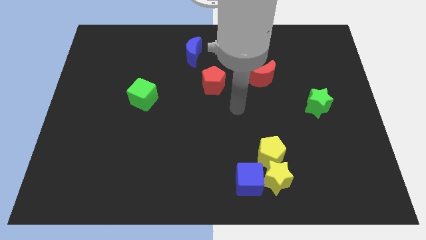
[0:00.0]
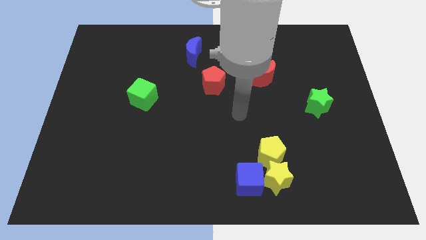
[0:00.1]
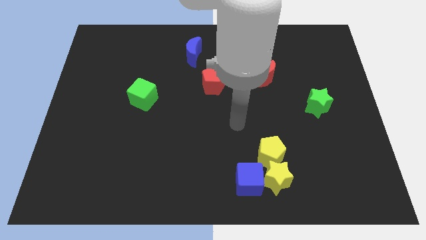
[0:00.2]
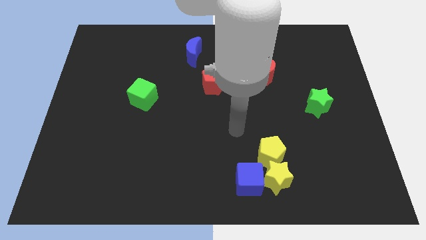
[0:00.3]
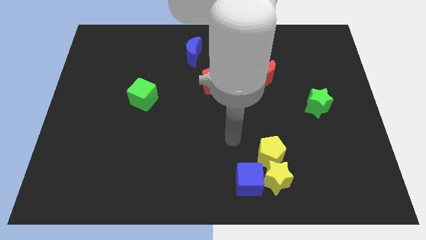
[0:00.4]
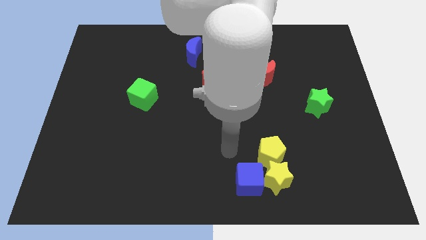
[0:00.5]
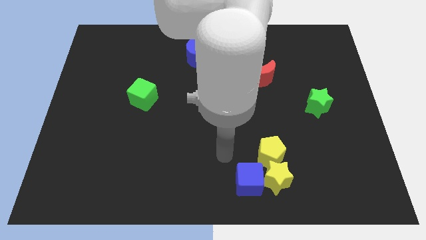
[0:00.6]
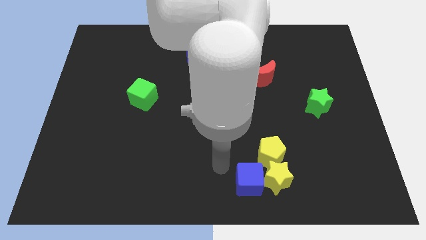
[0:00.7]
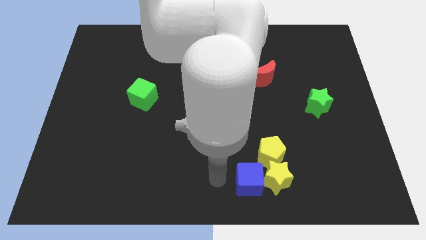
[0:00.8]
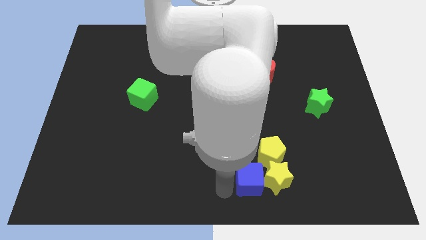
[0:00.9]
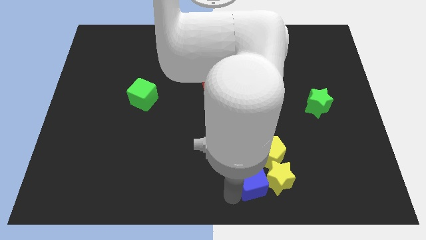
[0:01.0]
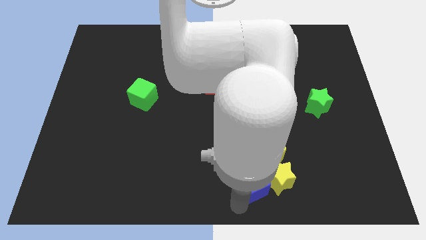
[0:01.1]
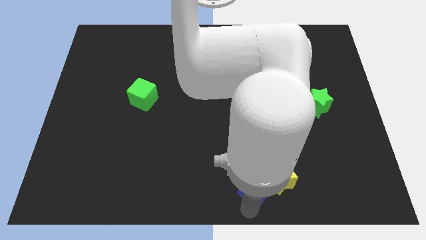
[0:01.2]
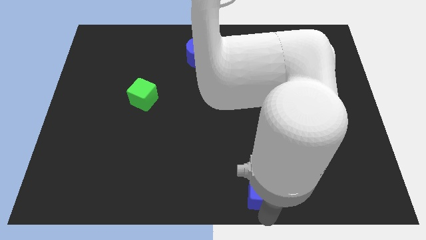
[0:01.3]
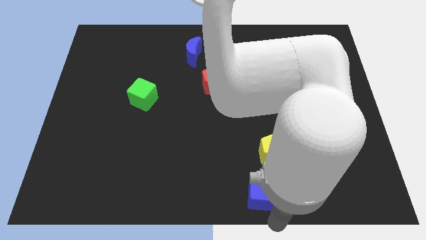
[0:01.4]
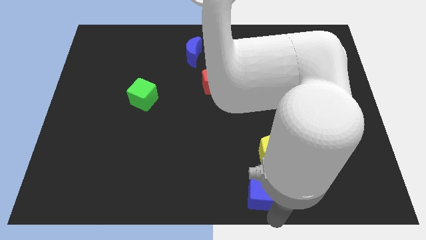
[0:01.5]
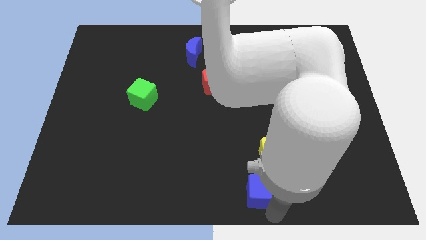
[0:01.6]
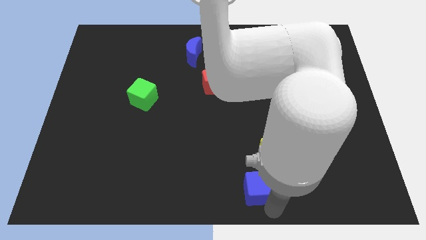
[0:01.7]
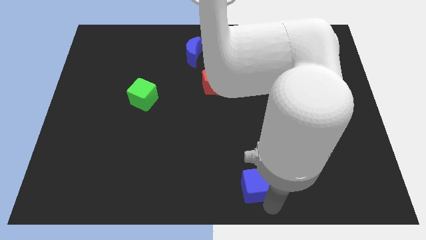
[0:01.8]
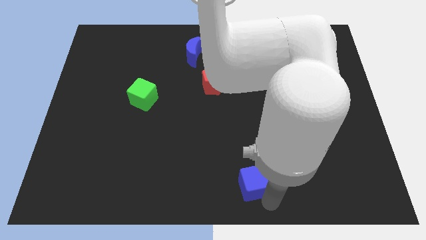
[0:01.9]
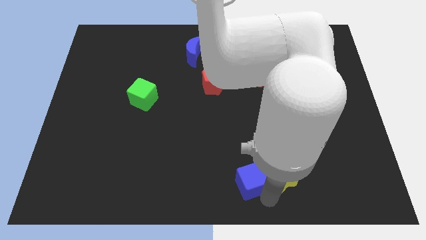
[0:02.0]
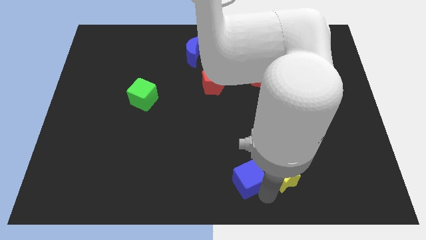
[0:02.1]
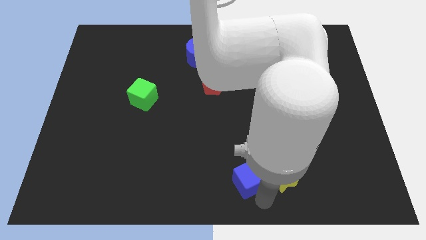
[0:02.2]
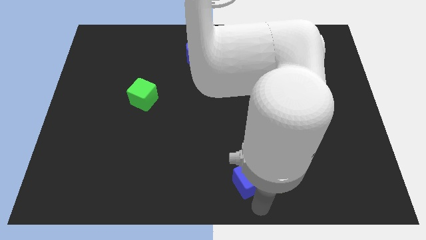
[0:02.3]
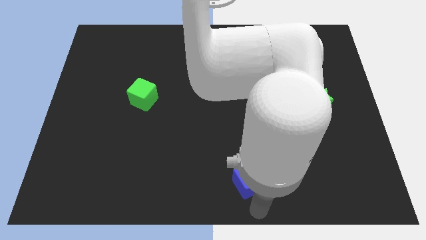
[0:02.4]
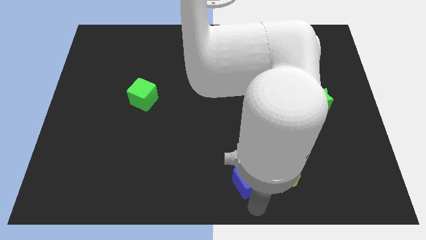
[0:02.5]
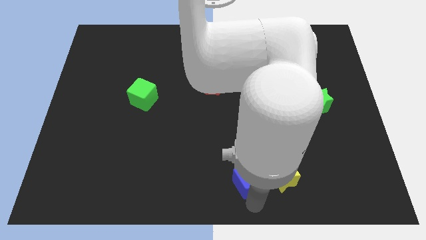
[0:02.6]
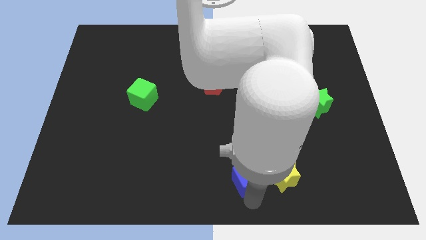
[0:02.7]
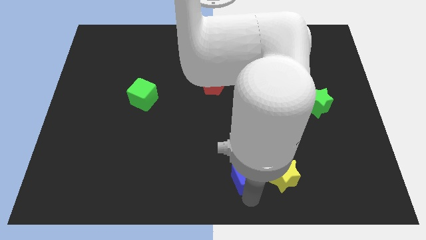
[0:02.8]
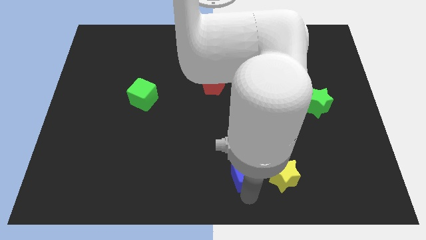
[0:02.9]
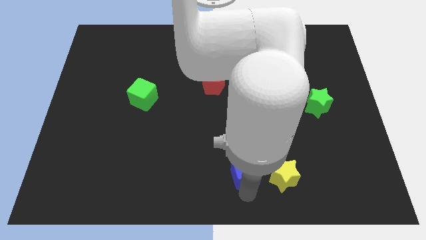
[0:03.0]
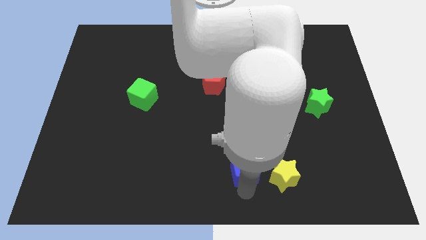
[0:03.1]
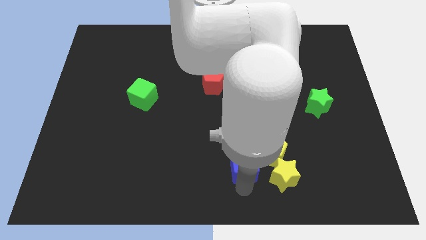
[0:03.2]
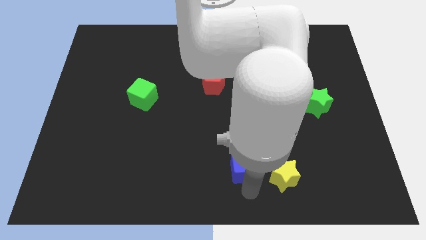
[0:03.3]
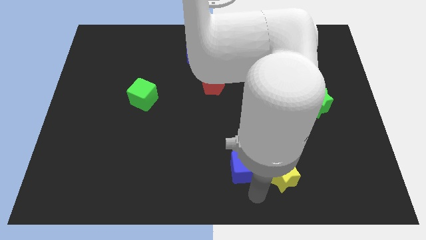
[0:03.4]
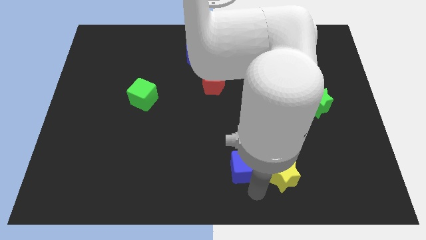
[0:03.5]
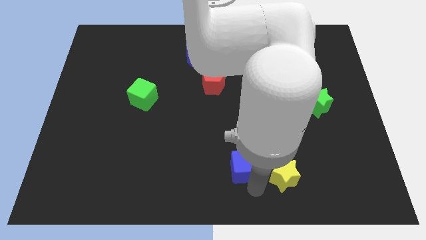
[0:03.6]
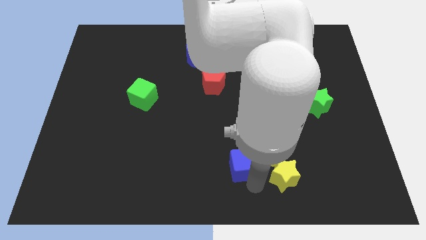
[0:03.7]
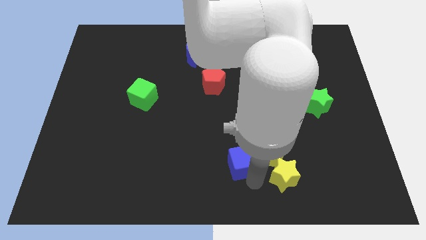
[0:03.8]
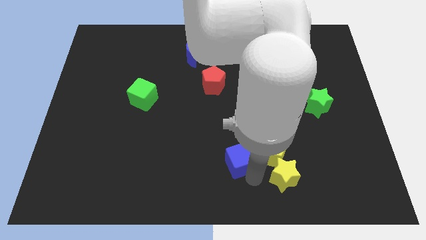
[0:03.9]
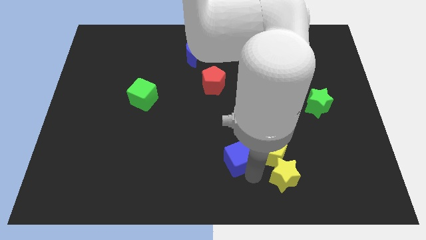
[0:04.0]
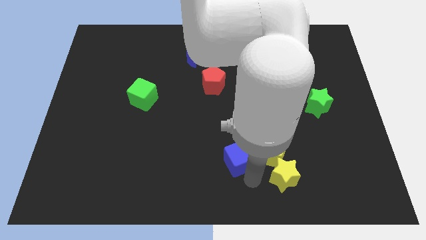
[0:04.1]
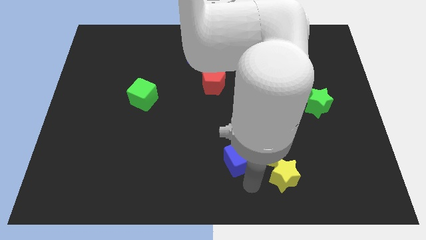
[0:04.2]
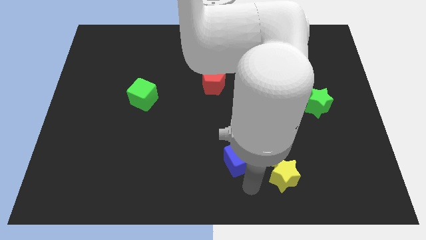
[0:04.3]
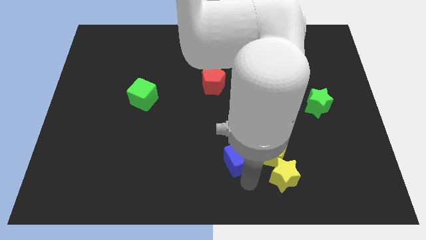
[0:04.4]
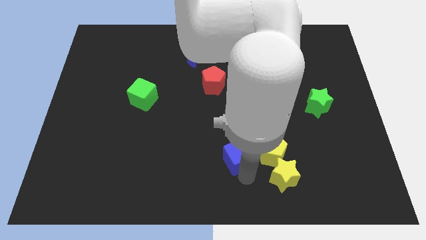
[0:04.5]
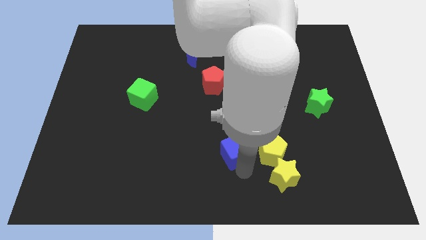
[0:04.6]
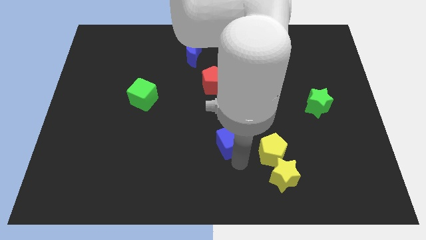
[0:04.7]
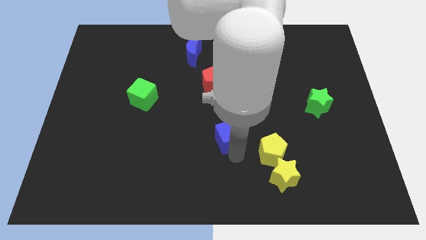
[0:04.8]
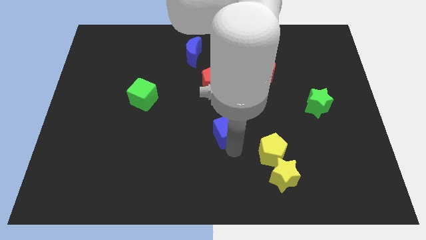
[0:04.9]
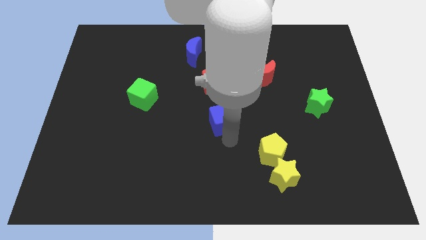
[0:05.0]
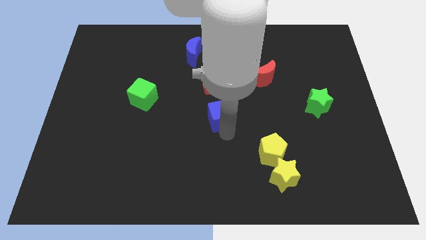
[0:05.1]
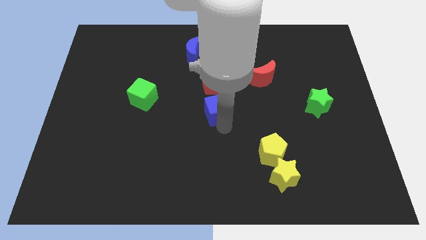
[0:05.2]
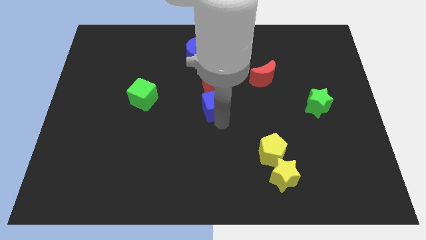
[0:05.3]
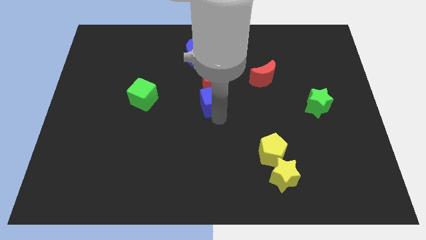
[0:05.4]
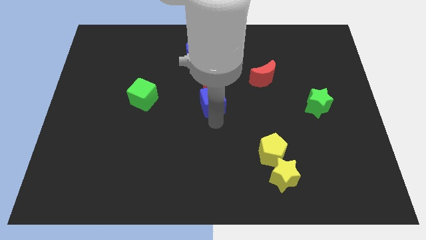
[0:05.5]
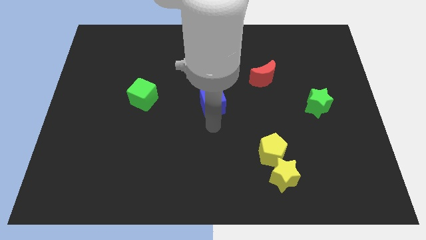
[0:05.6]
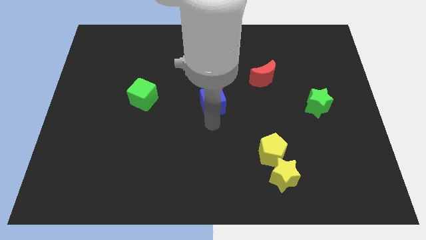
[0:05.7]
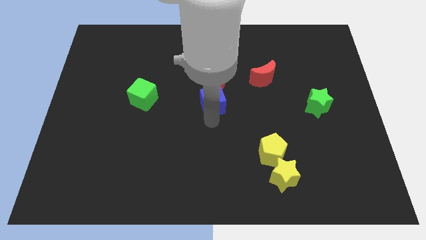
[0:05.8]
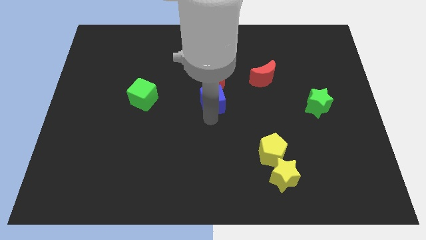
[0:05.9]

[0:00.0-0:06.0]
slide the blue cube to the red pentagon

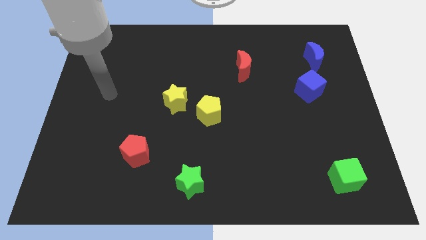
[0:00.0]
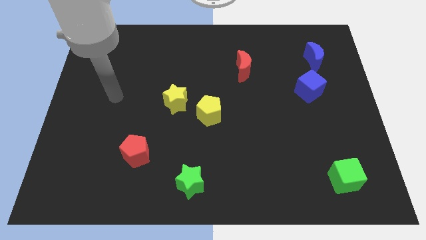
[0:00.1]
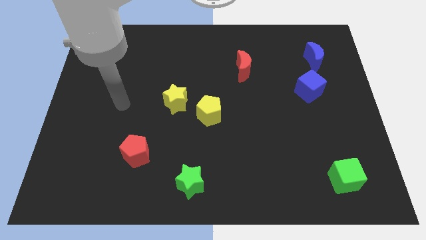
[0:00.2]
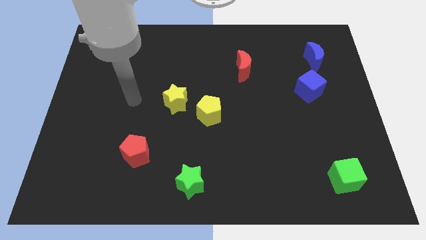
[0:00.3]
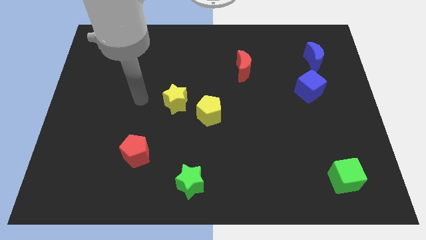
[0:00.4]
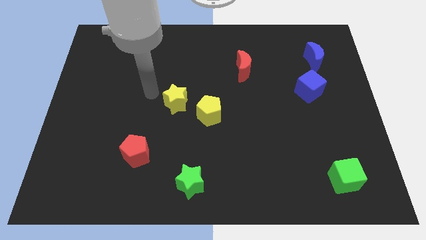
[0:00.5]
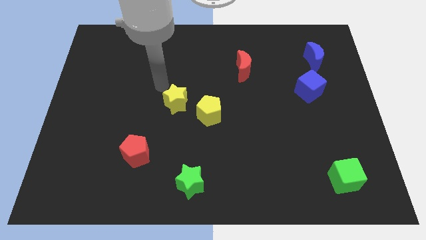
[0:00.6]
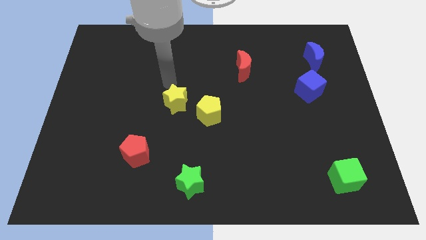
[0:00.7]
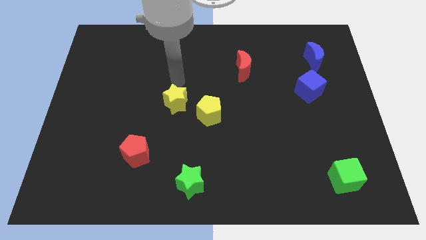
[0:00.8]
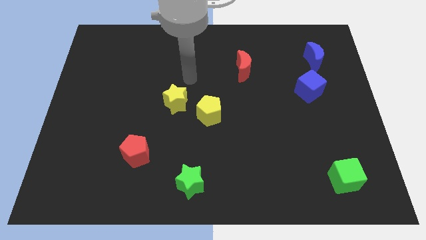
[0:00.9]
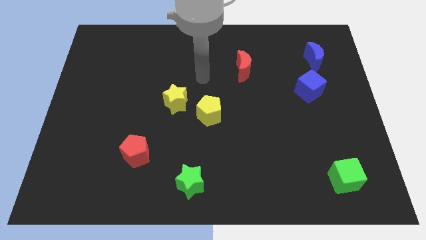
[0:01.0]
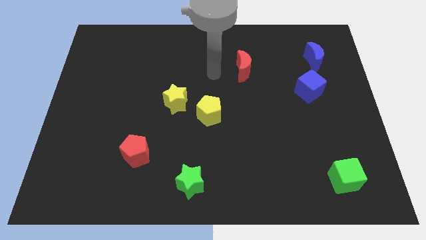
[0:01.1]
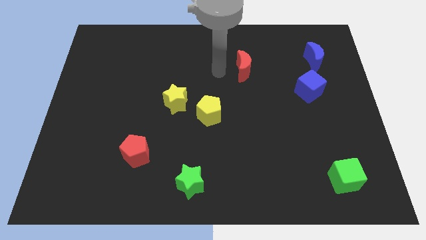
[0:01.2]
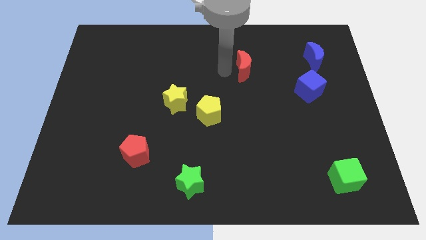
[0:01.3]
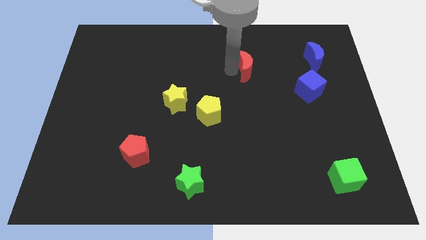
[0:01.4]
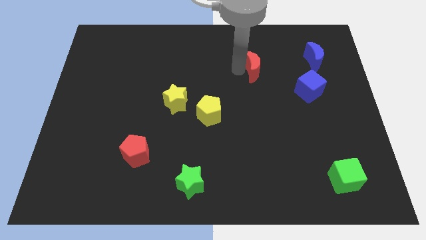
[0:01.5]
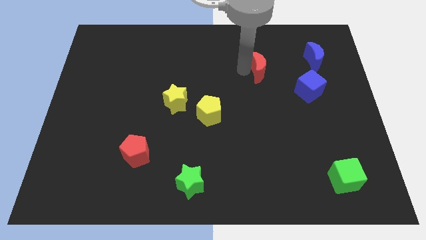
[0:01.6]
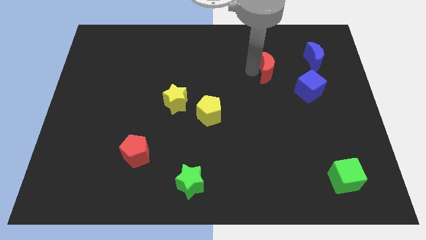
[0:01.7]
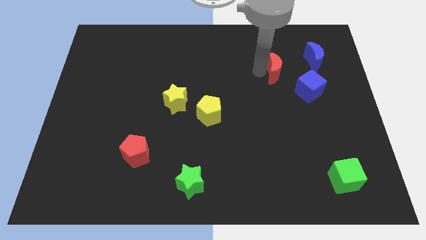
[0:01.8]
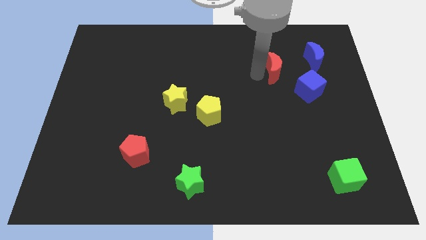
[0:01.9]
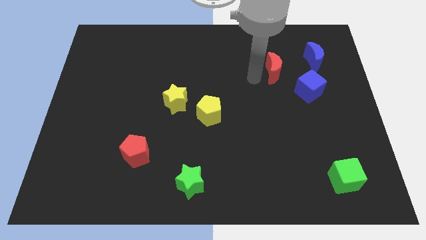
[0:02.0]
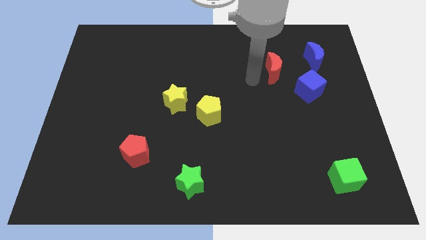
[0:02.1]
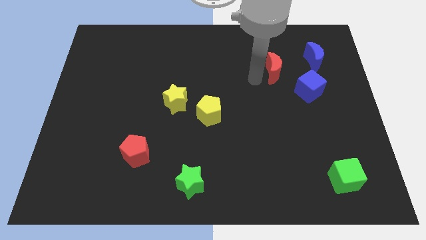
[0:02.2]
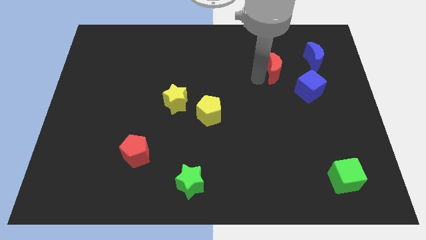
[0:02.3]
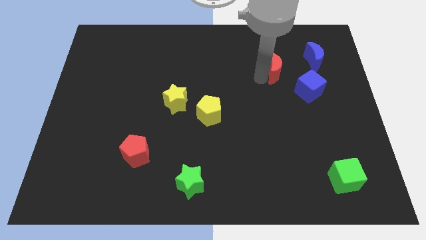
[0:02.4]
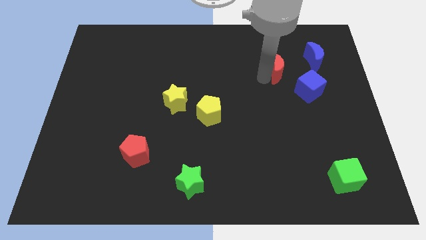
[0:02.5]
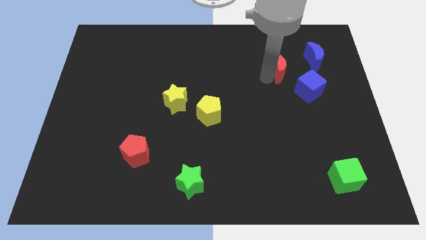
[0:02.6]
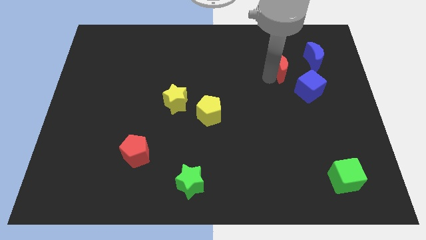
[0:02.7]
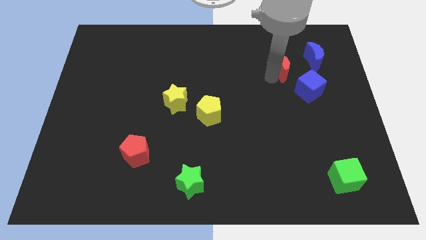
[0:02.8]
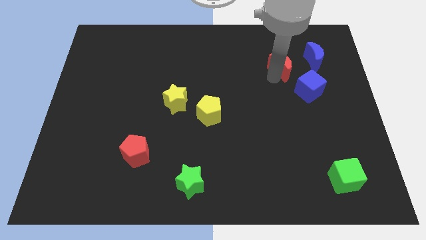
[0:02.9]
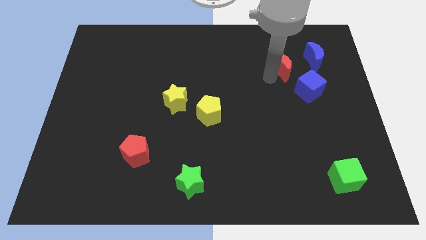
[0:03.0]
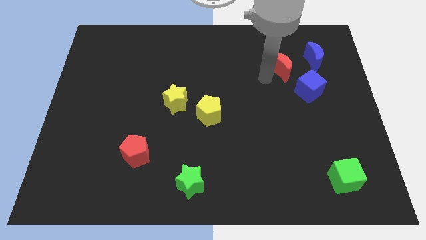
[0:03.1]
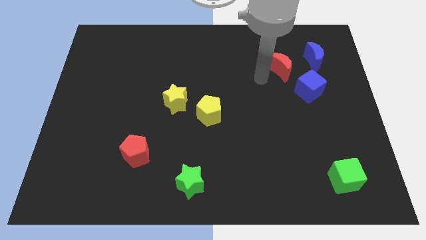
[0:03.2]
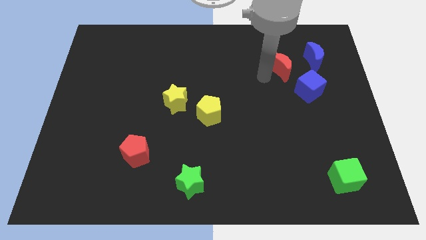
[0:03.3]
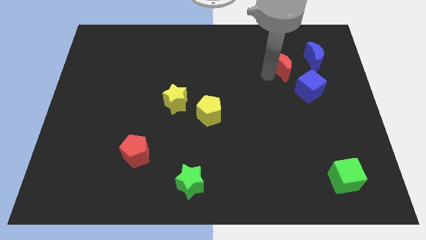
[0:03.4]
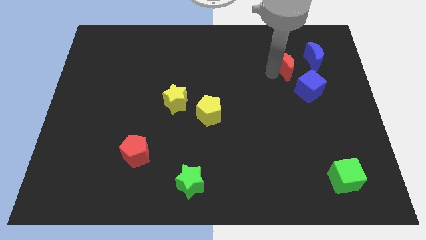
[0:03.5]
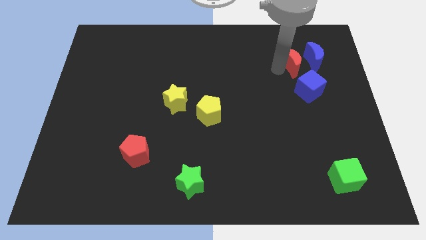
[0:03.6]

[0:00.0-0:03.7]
put the red moon towards the blue moon
